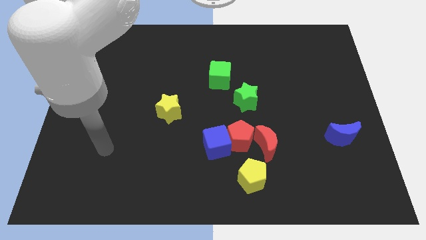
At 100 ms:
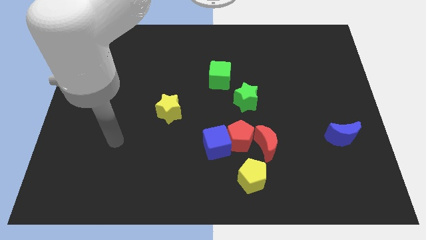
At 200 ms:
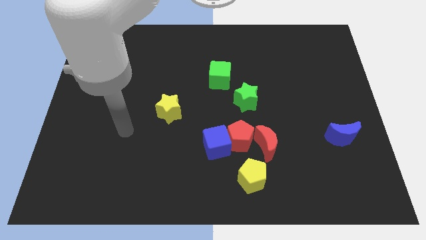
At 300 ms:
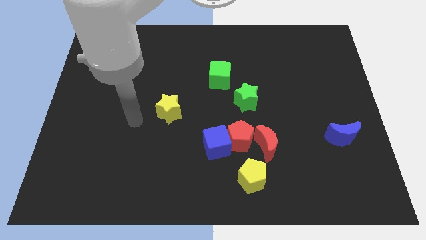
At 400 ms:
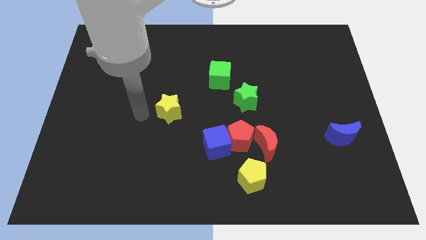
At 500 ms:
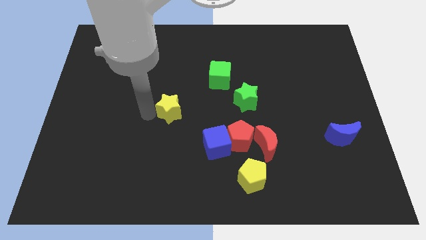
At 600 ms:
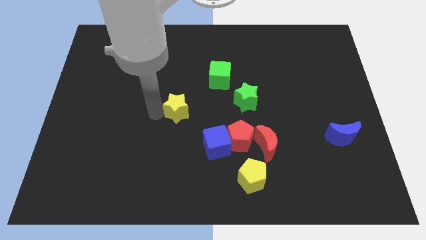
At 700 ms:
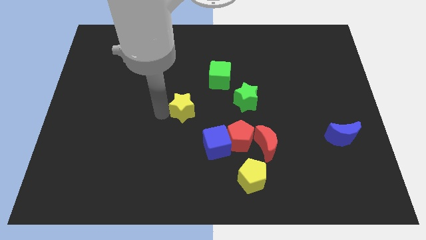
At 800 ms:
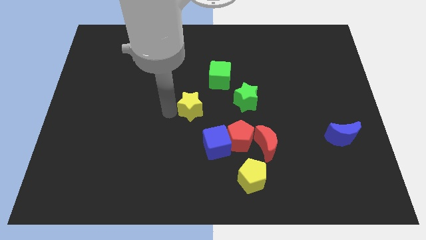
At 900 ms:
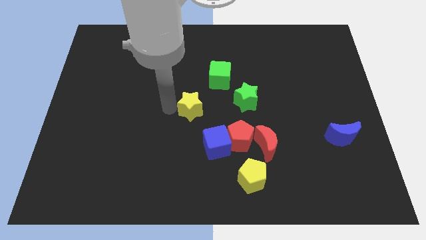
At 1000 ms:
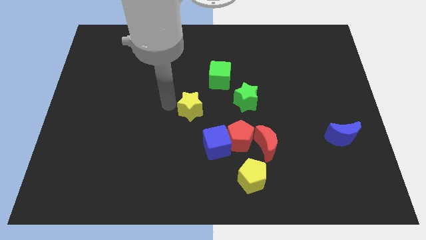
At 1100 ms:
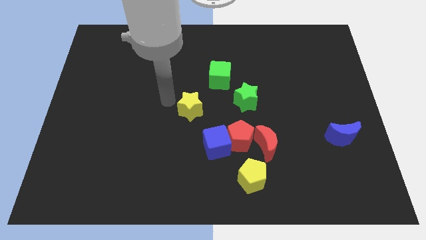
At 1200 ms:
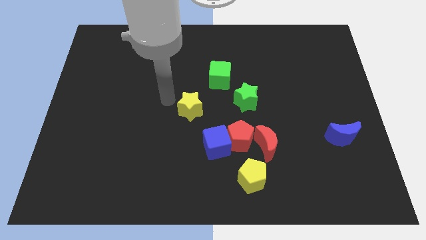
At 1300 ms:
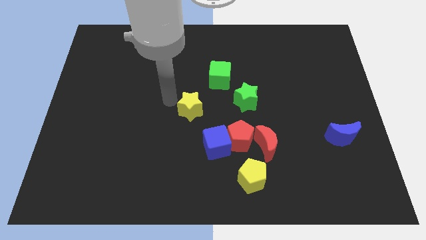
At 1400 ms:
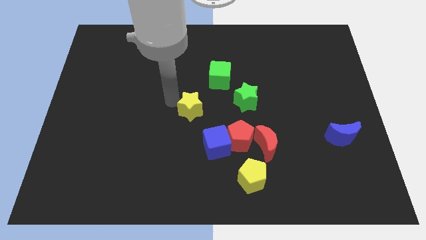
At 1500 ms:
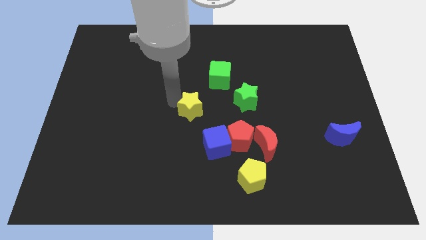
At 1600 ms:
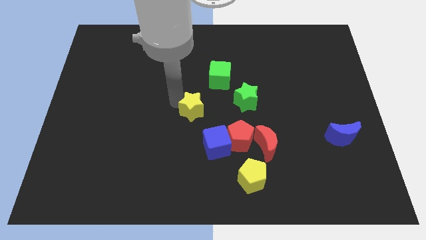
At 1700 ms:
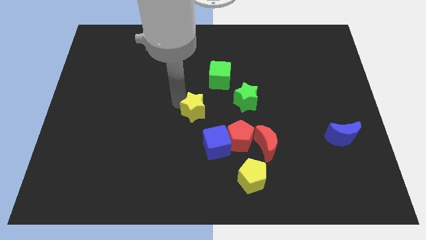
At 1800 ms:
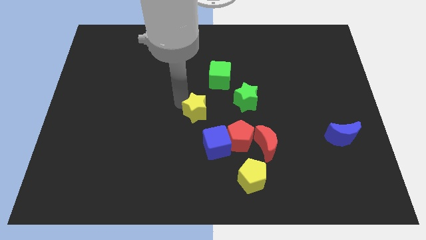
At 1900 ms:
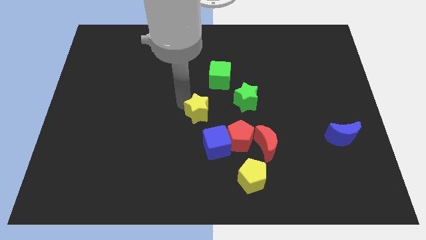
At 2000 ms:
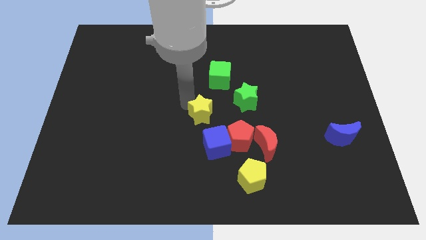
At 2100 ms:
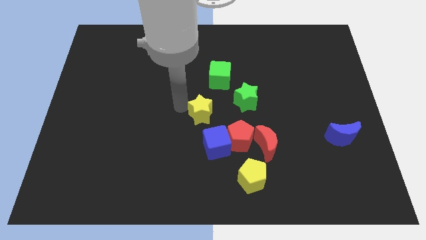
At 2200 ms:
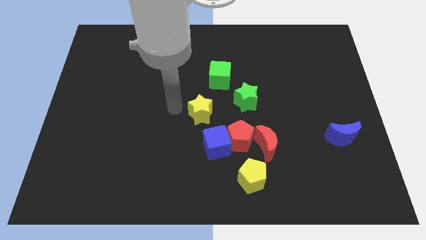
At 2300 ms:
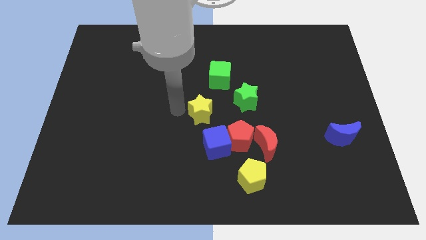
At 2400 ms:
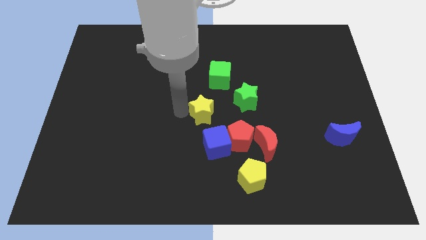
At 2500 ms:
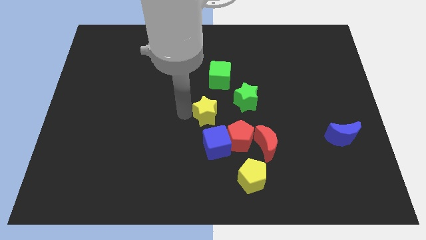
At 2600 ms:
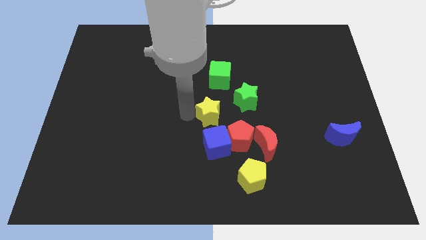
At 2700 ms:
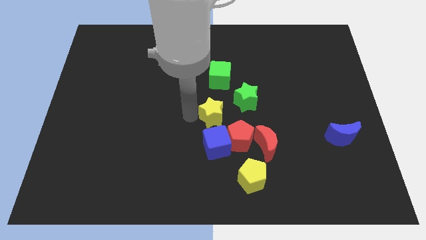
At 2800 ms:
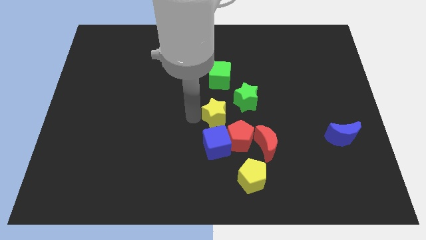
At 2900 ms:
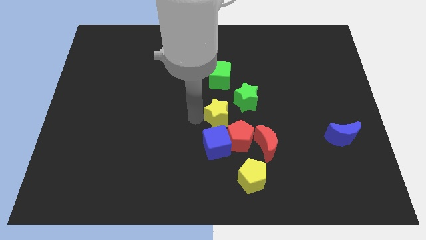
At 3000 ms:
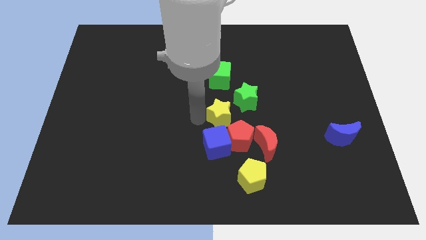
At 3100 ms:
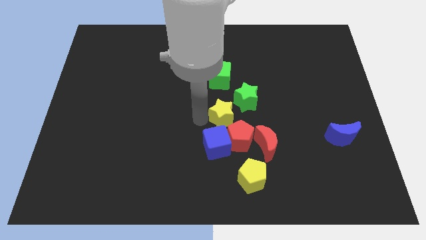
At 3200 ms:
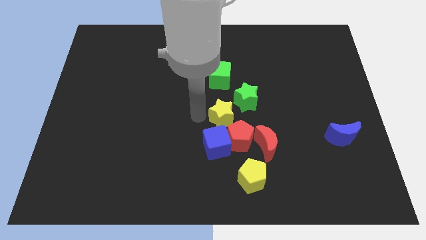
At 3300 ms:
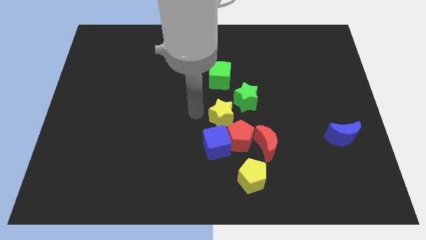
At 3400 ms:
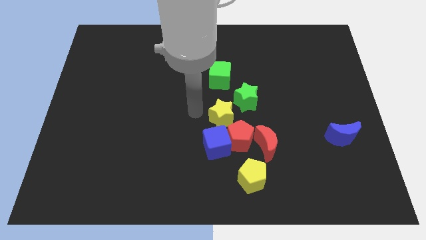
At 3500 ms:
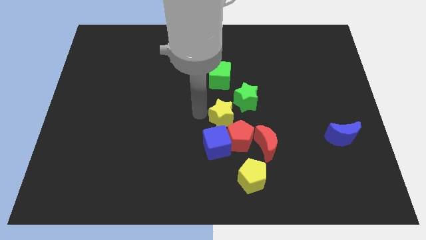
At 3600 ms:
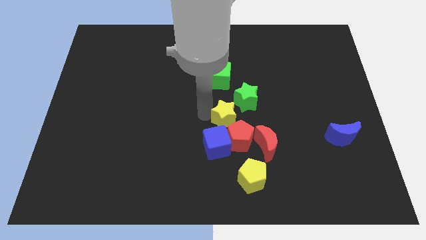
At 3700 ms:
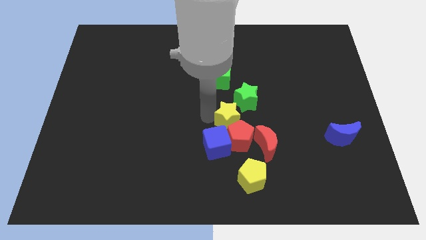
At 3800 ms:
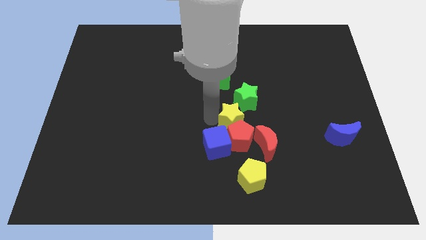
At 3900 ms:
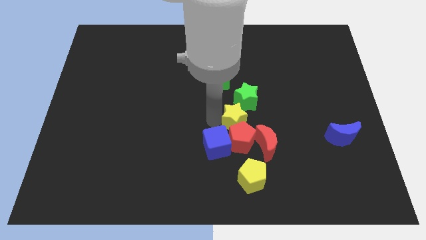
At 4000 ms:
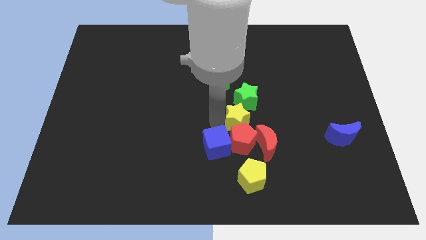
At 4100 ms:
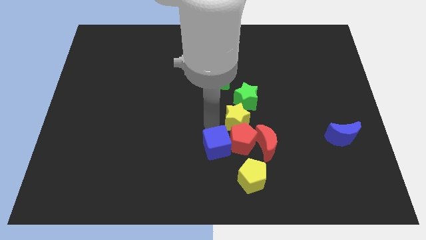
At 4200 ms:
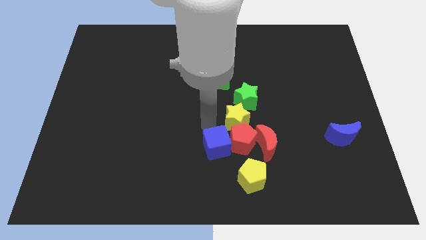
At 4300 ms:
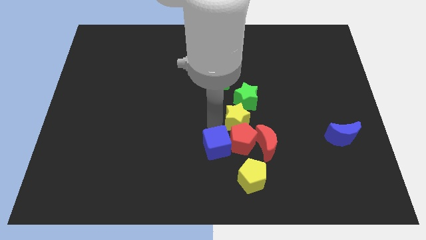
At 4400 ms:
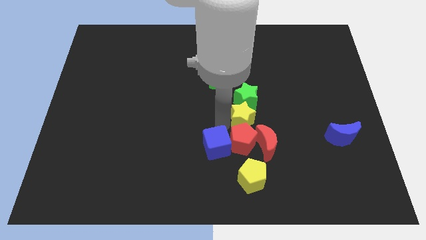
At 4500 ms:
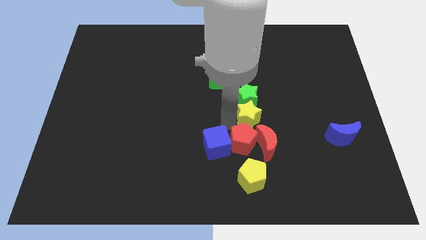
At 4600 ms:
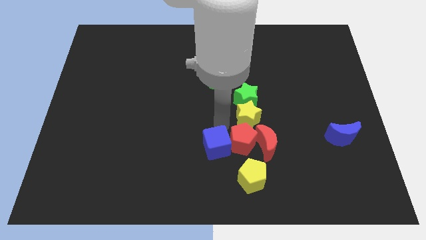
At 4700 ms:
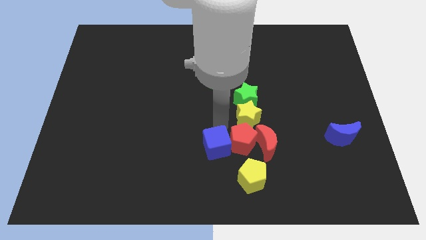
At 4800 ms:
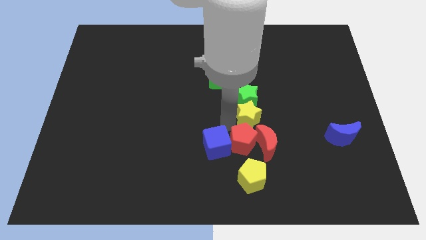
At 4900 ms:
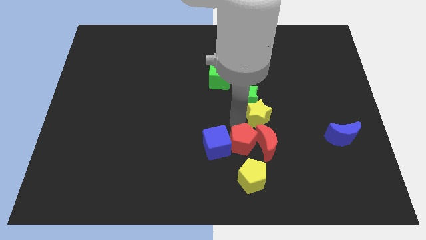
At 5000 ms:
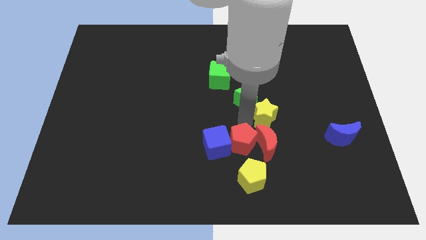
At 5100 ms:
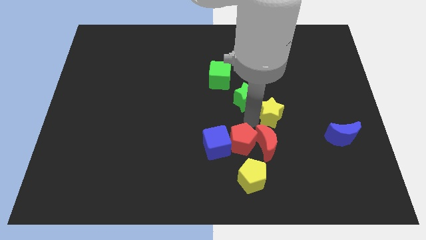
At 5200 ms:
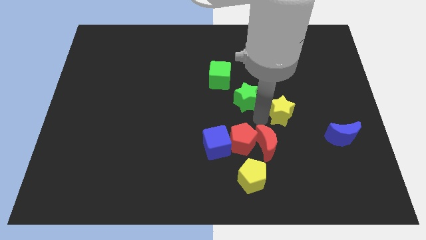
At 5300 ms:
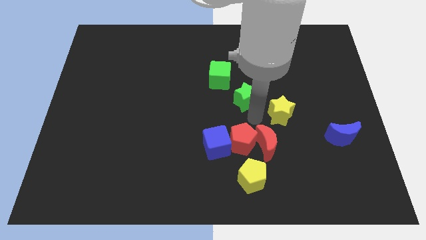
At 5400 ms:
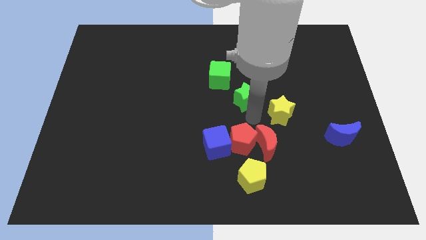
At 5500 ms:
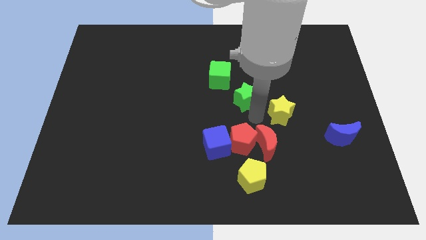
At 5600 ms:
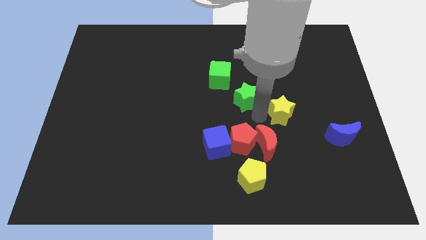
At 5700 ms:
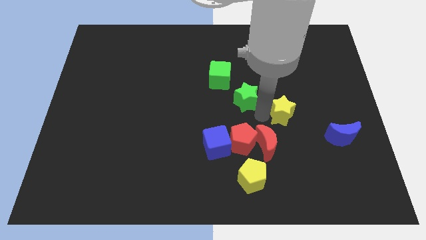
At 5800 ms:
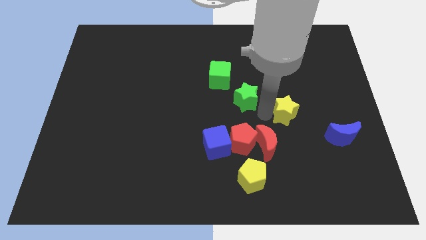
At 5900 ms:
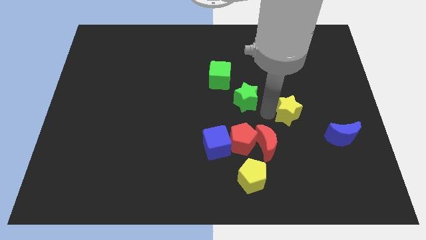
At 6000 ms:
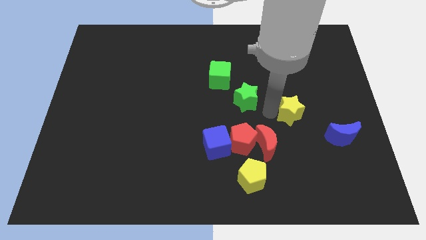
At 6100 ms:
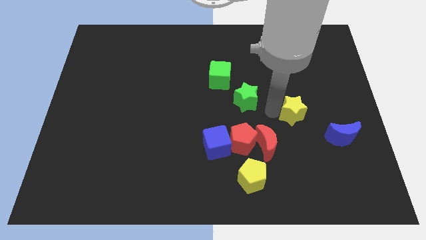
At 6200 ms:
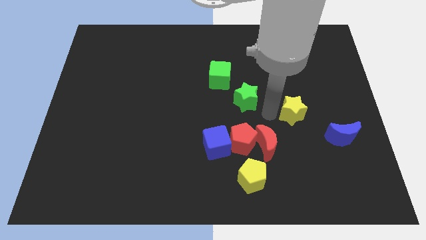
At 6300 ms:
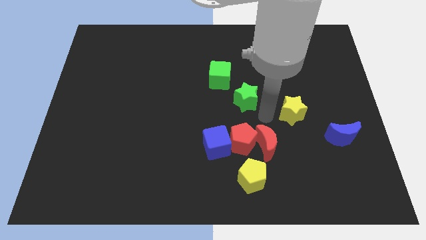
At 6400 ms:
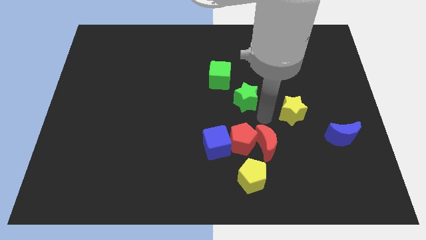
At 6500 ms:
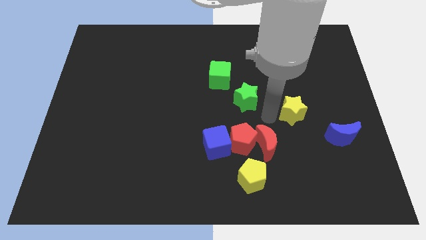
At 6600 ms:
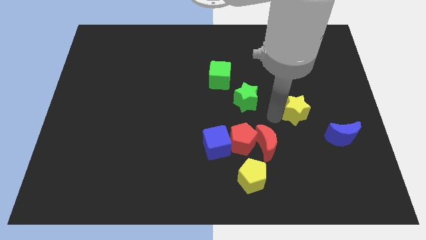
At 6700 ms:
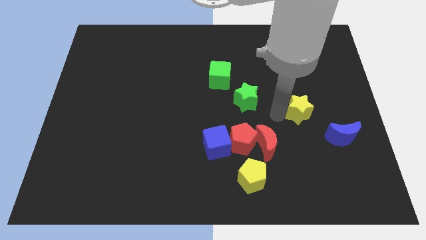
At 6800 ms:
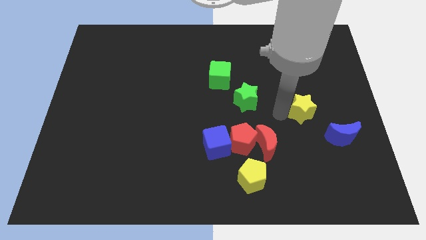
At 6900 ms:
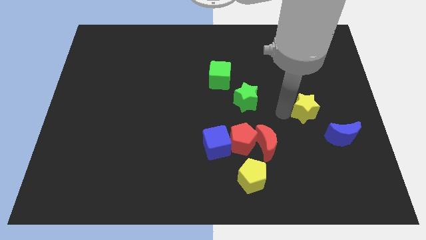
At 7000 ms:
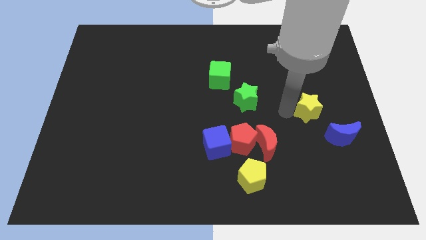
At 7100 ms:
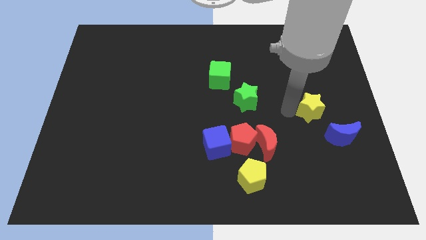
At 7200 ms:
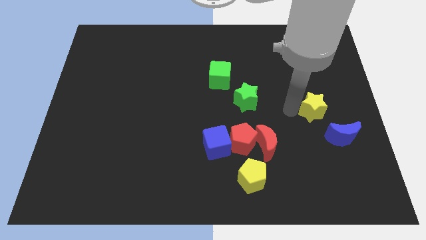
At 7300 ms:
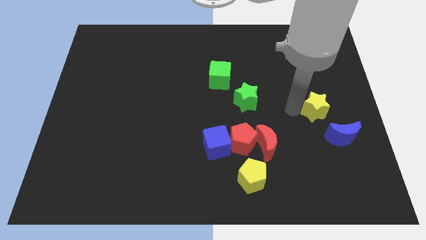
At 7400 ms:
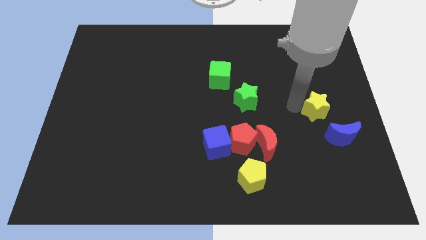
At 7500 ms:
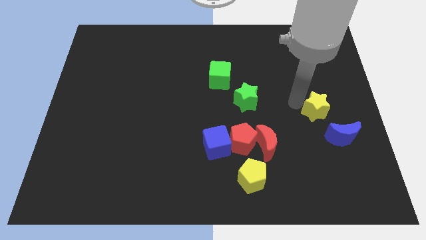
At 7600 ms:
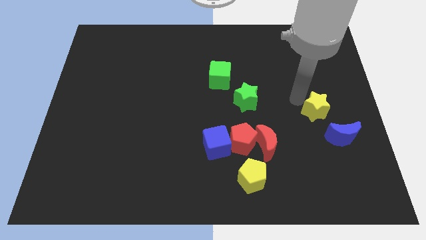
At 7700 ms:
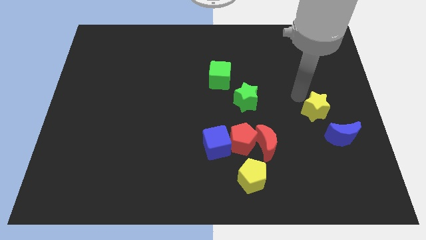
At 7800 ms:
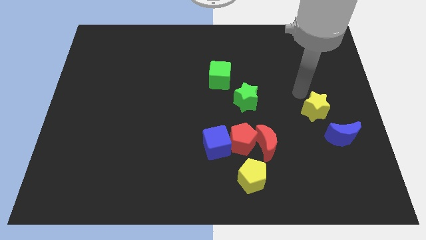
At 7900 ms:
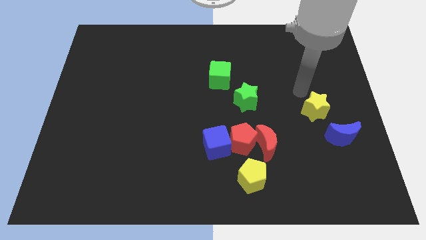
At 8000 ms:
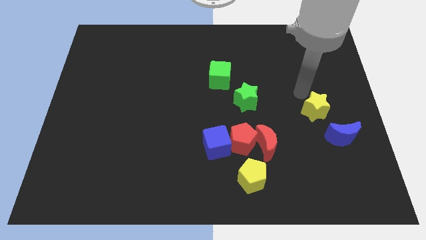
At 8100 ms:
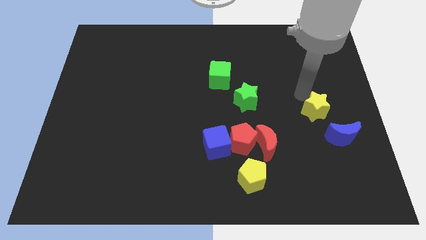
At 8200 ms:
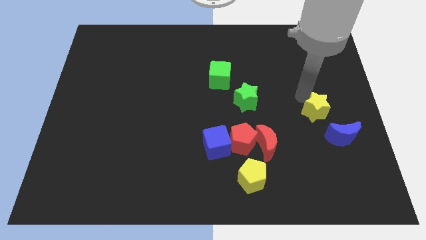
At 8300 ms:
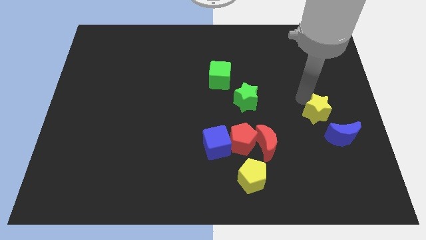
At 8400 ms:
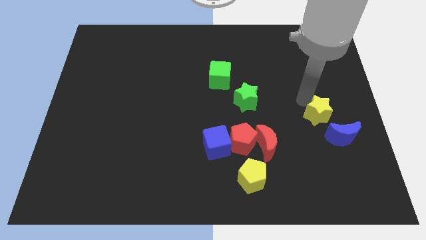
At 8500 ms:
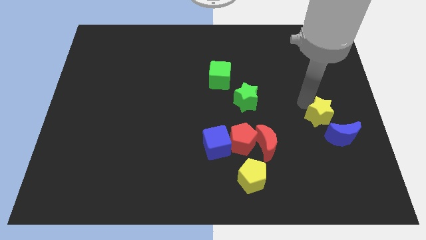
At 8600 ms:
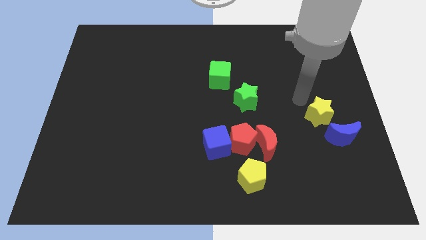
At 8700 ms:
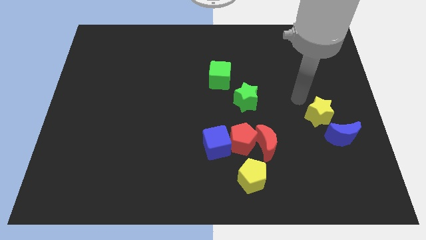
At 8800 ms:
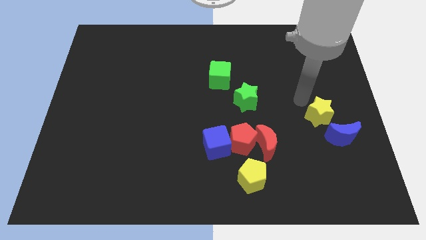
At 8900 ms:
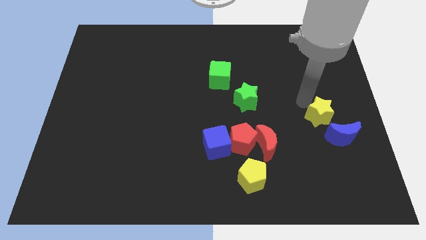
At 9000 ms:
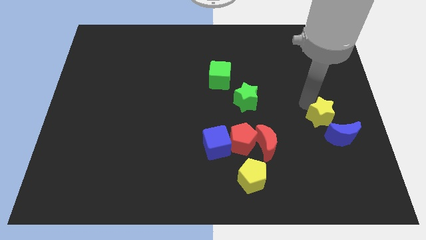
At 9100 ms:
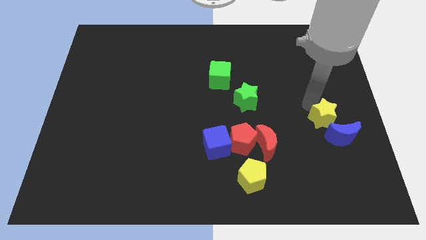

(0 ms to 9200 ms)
put the yellow star to the blue moon
